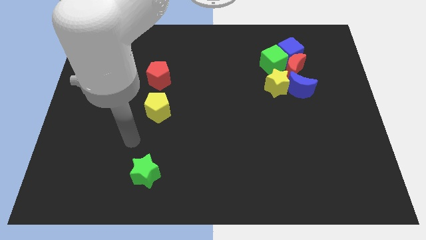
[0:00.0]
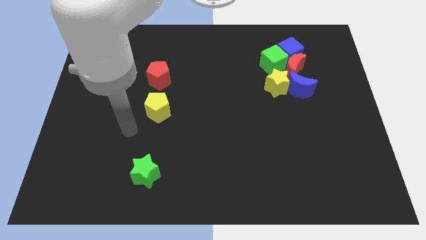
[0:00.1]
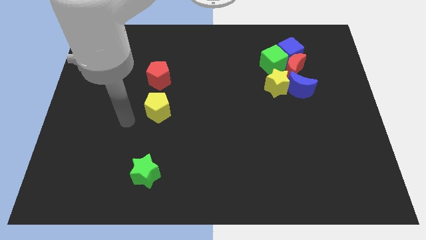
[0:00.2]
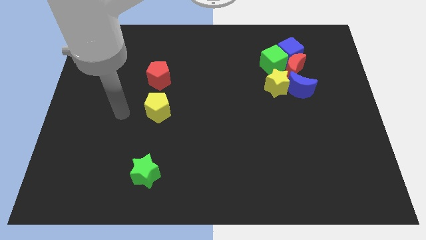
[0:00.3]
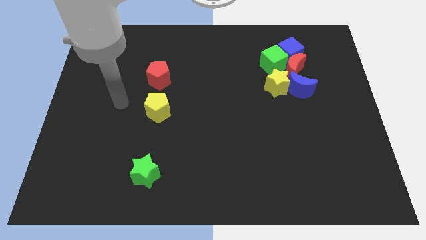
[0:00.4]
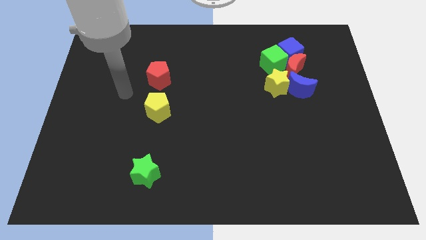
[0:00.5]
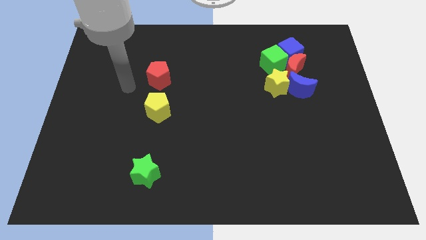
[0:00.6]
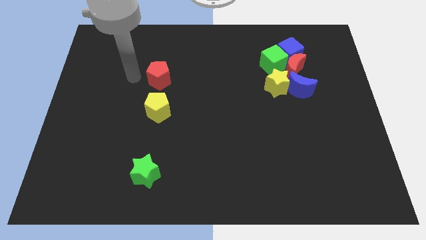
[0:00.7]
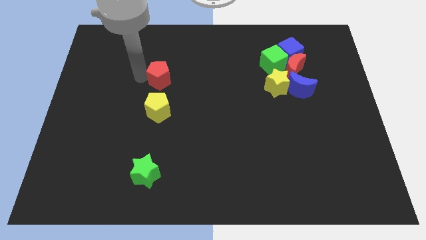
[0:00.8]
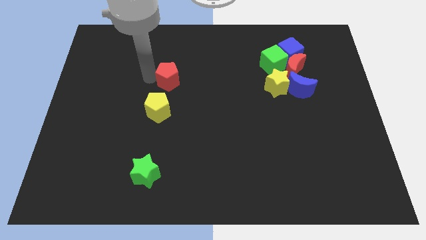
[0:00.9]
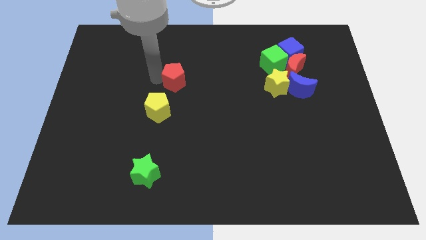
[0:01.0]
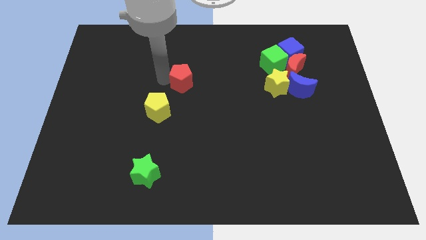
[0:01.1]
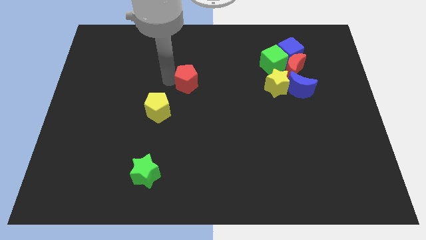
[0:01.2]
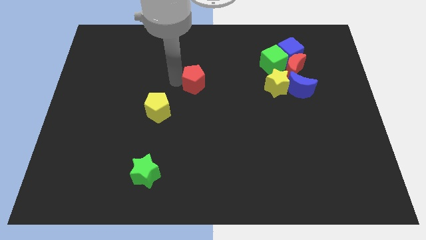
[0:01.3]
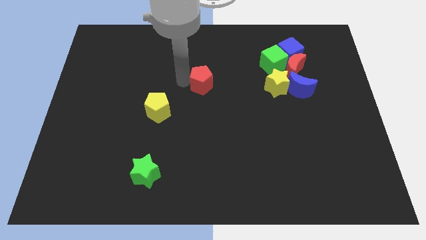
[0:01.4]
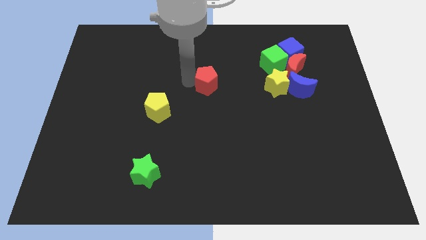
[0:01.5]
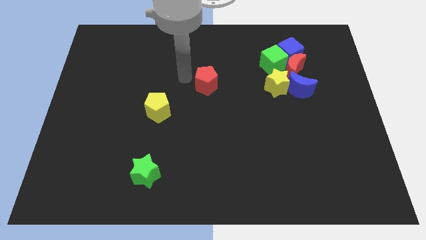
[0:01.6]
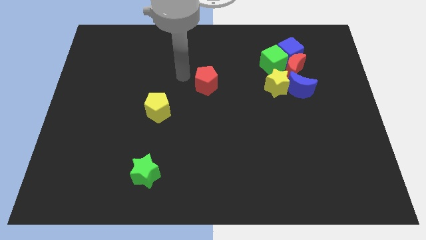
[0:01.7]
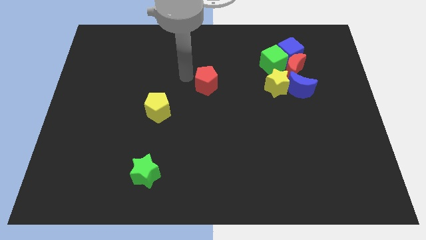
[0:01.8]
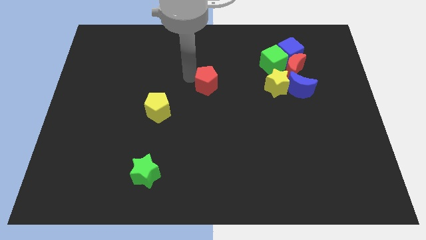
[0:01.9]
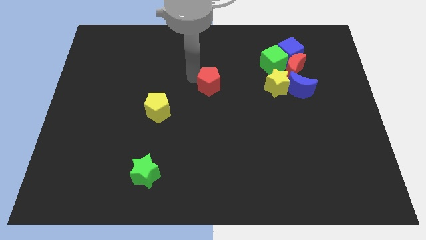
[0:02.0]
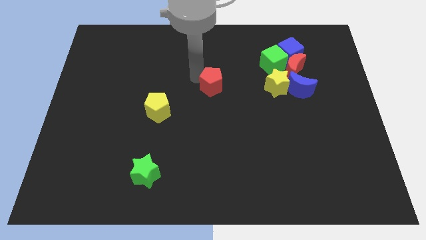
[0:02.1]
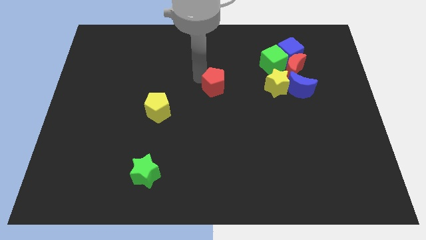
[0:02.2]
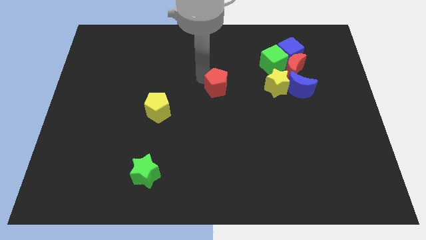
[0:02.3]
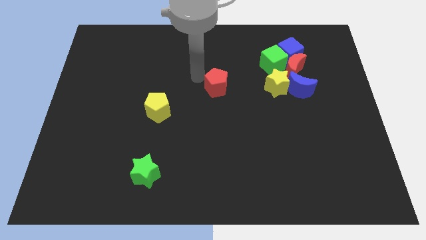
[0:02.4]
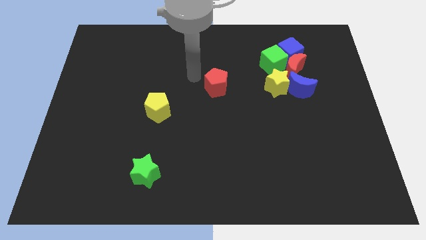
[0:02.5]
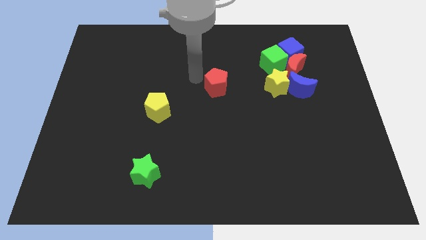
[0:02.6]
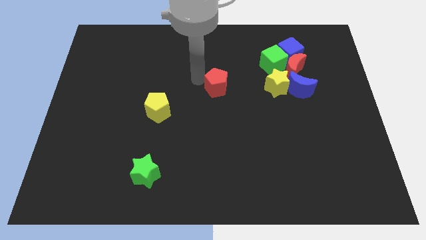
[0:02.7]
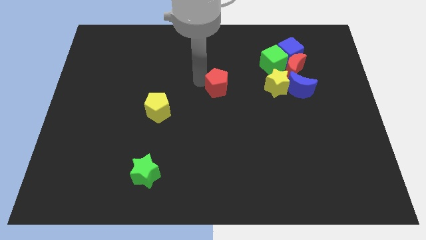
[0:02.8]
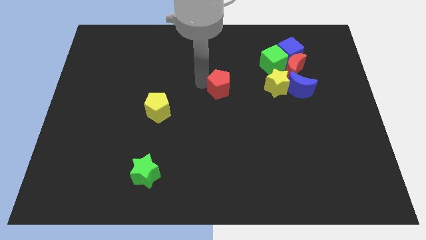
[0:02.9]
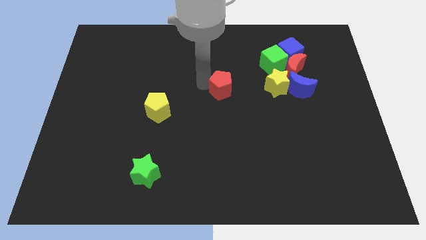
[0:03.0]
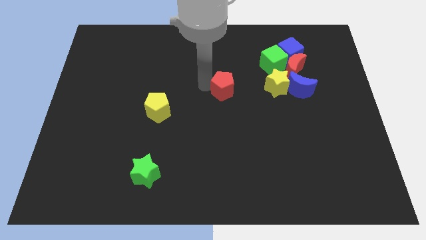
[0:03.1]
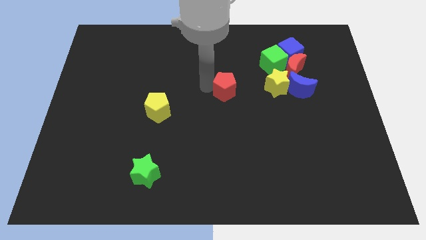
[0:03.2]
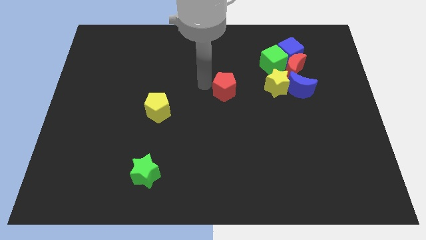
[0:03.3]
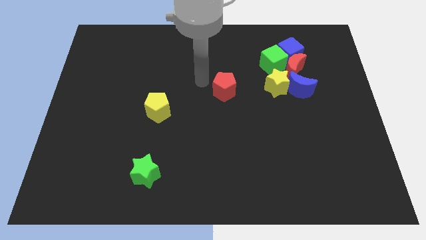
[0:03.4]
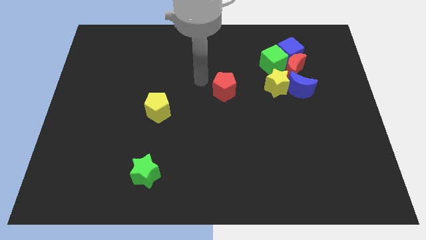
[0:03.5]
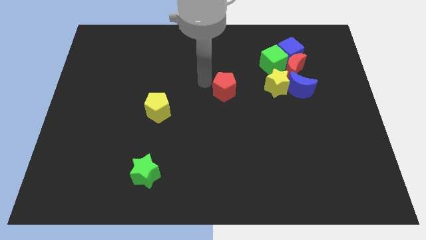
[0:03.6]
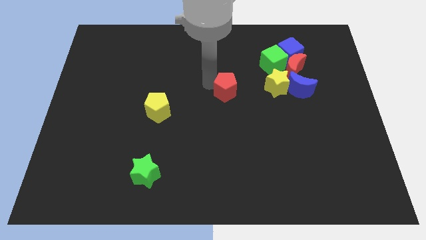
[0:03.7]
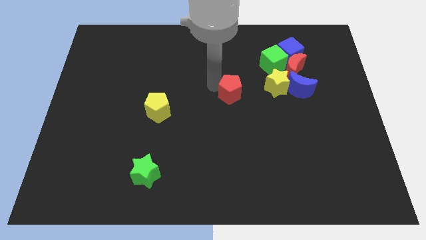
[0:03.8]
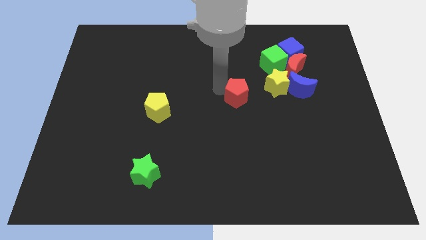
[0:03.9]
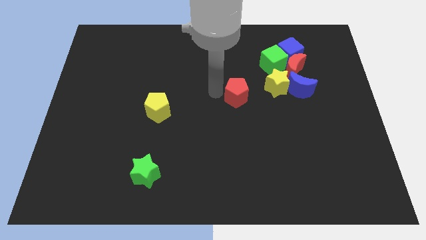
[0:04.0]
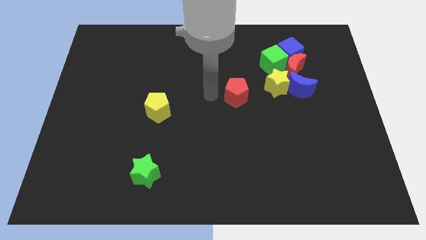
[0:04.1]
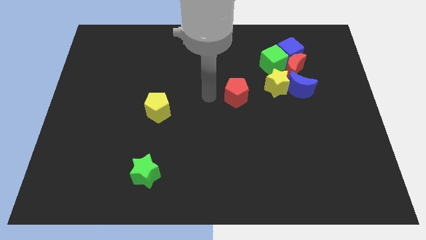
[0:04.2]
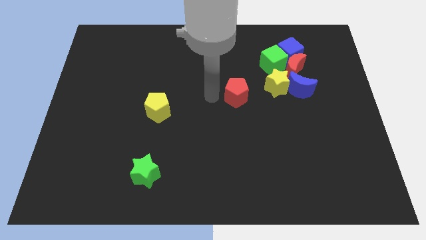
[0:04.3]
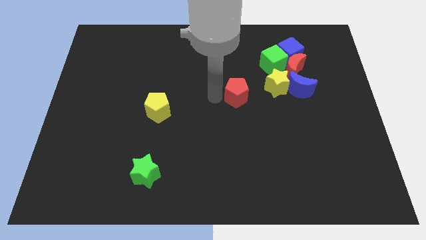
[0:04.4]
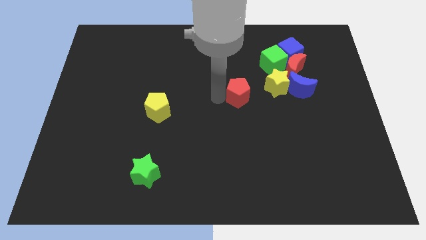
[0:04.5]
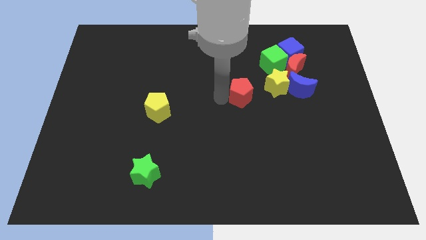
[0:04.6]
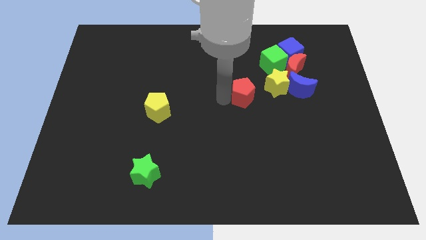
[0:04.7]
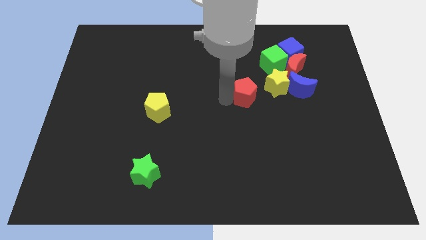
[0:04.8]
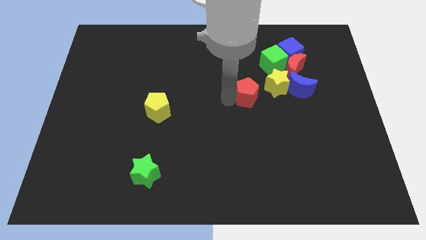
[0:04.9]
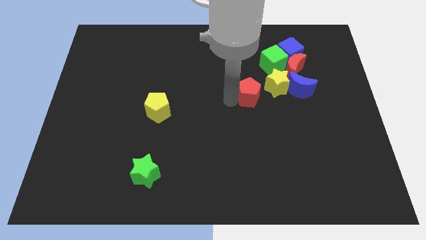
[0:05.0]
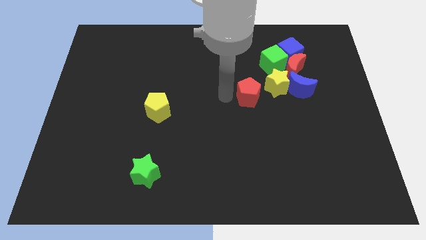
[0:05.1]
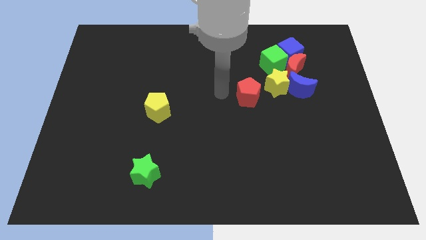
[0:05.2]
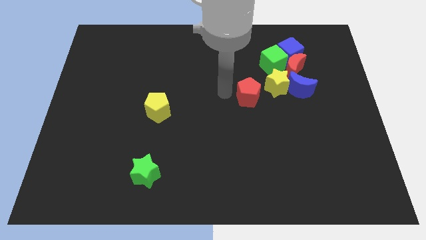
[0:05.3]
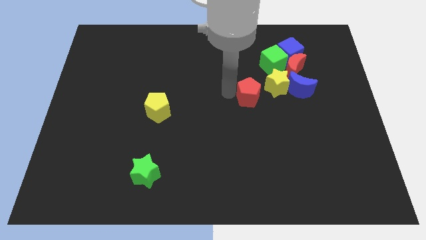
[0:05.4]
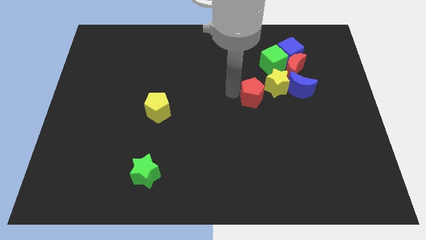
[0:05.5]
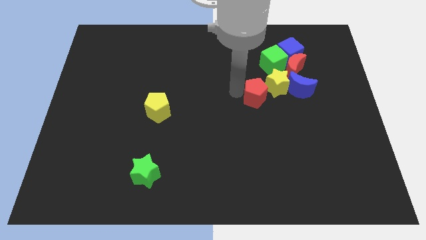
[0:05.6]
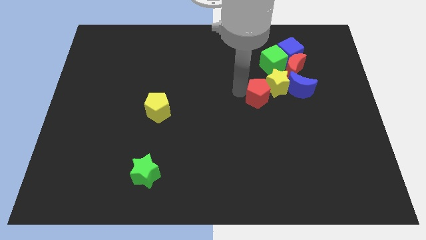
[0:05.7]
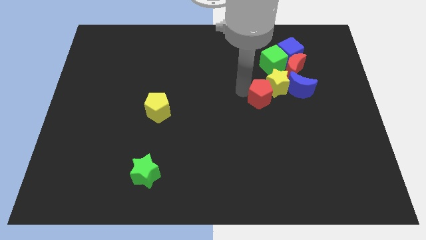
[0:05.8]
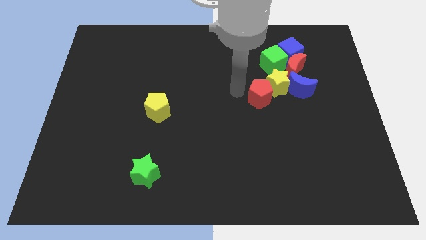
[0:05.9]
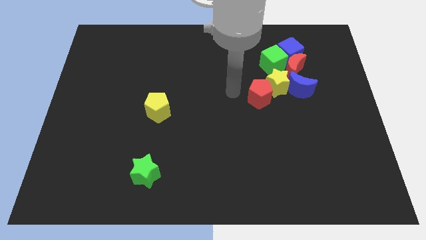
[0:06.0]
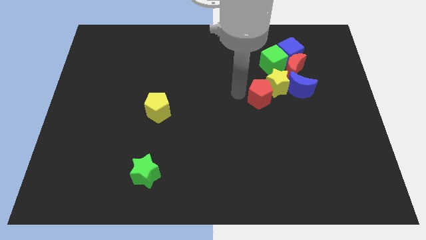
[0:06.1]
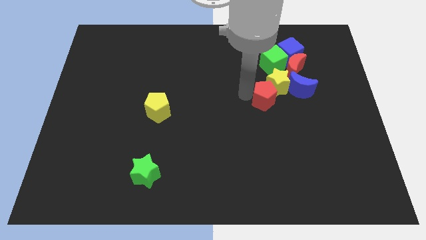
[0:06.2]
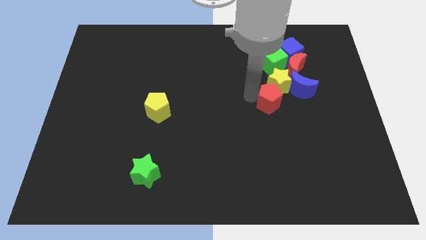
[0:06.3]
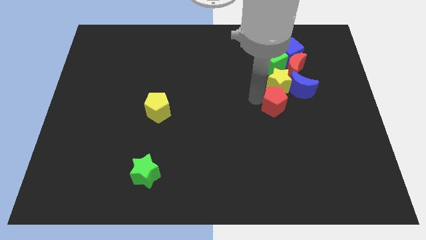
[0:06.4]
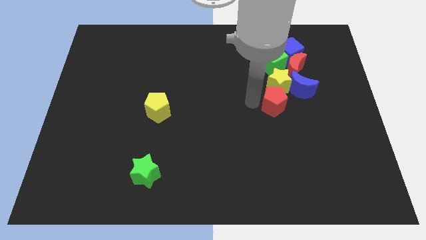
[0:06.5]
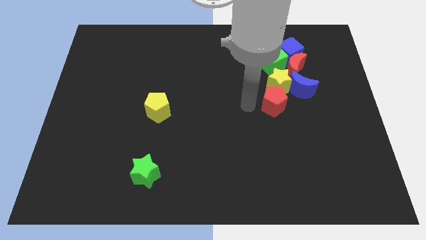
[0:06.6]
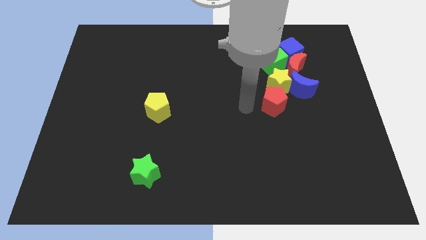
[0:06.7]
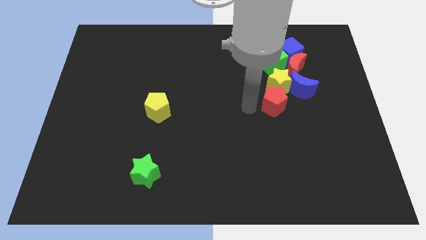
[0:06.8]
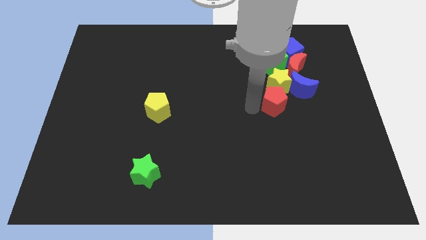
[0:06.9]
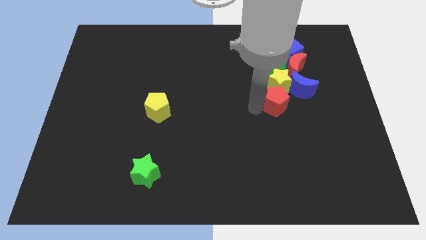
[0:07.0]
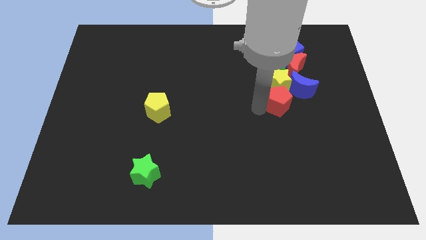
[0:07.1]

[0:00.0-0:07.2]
slide the red pentagon to the bottom right of the yellow star
